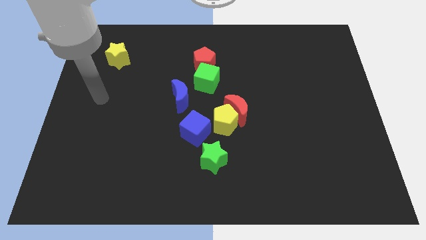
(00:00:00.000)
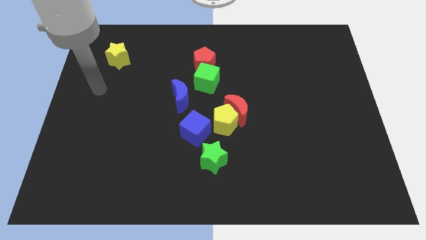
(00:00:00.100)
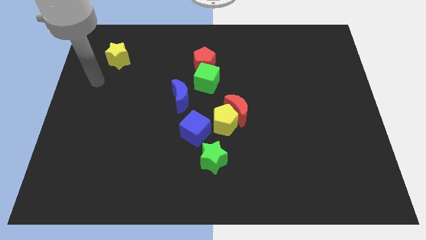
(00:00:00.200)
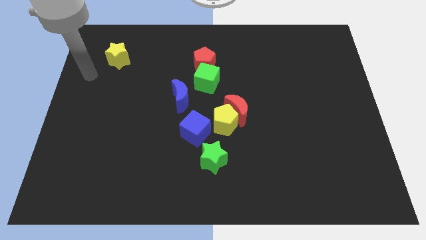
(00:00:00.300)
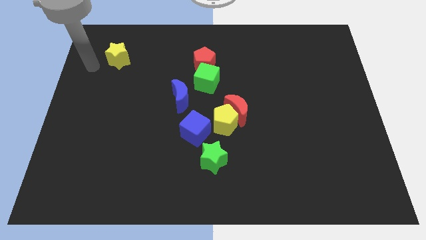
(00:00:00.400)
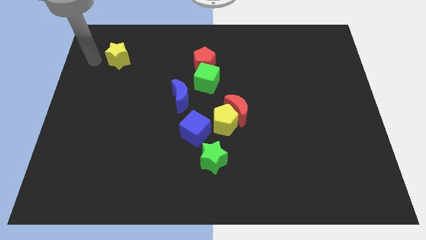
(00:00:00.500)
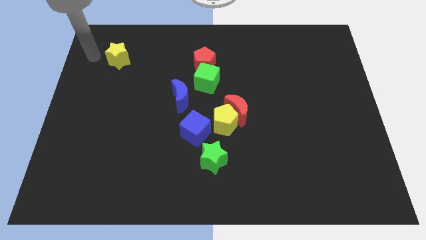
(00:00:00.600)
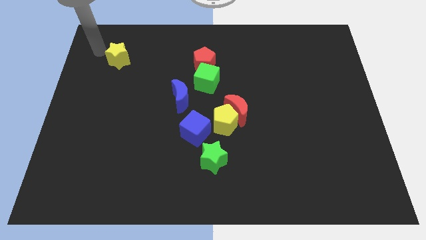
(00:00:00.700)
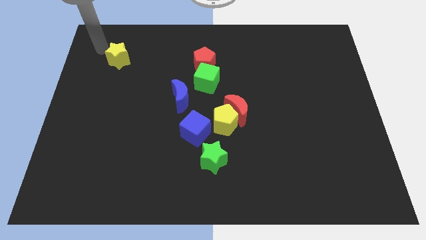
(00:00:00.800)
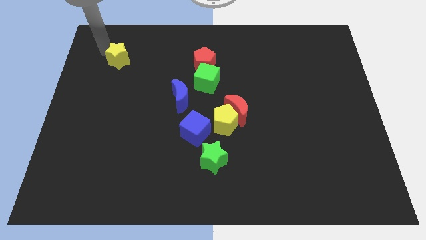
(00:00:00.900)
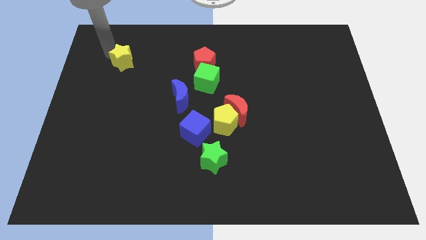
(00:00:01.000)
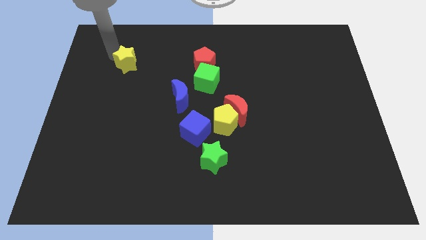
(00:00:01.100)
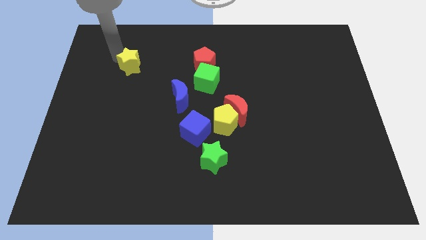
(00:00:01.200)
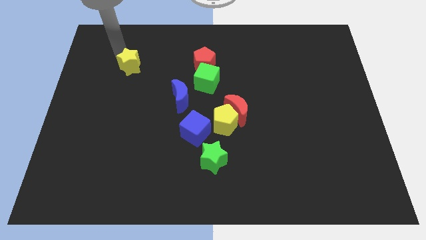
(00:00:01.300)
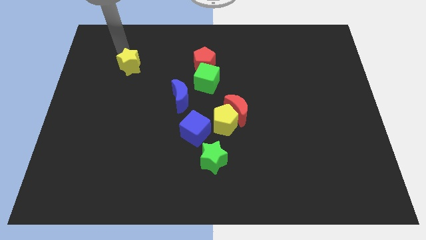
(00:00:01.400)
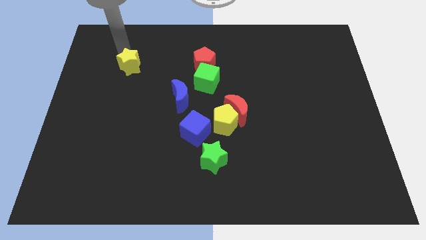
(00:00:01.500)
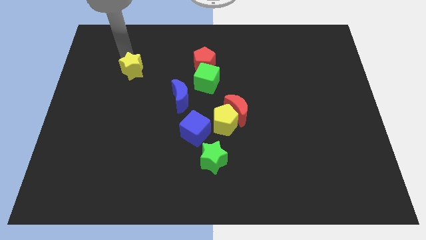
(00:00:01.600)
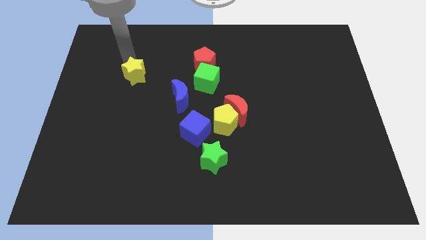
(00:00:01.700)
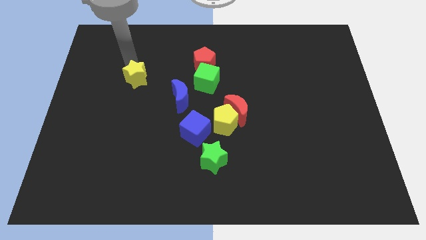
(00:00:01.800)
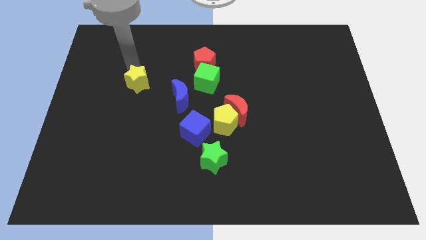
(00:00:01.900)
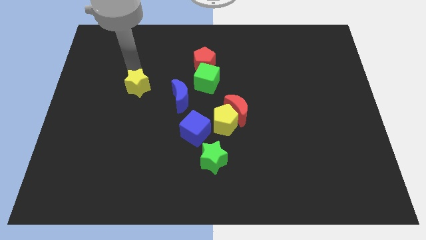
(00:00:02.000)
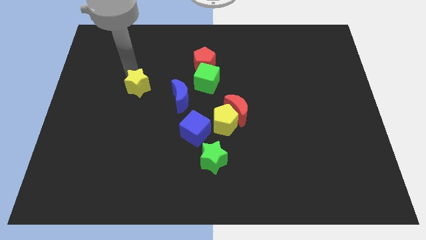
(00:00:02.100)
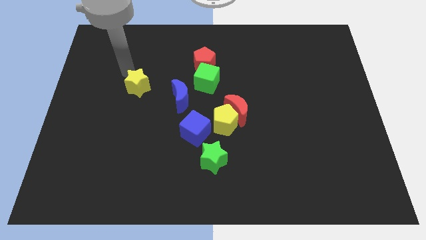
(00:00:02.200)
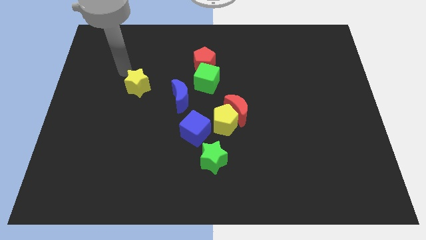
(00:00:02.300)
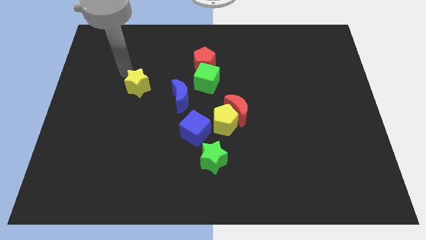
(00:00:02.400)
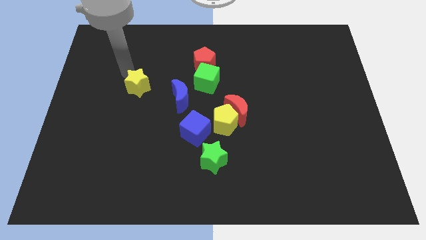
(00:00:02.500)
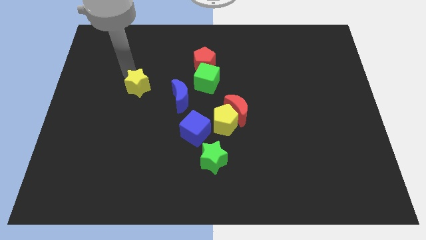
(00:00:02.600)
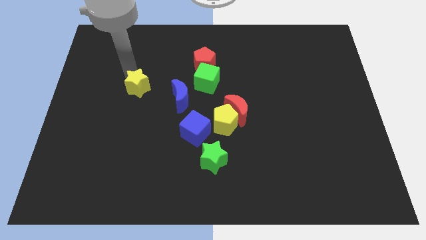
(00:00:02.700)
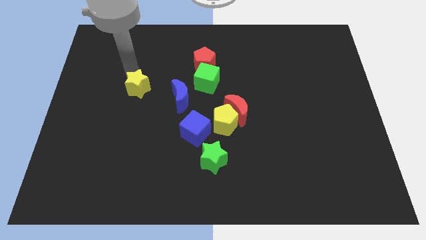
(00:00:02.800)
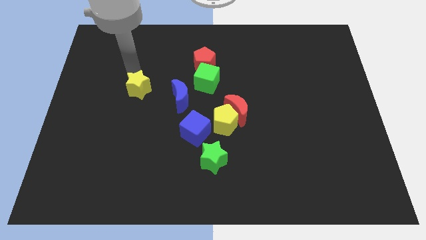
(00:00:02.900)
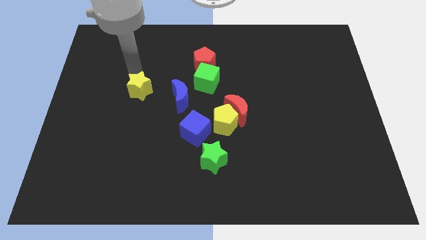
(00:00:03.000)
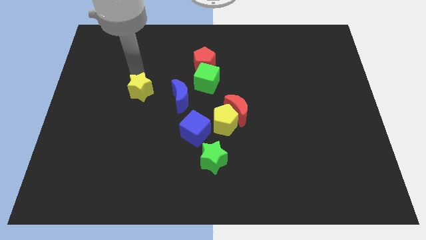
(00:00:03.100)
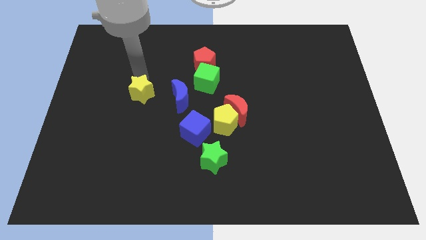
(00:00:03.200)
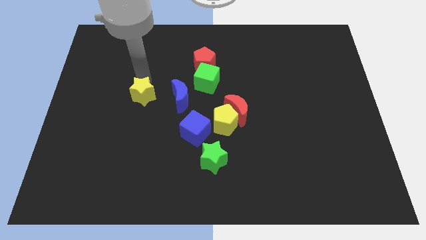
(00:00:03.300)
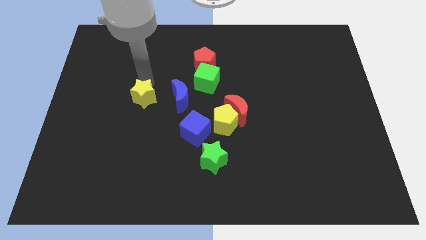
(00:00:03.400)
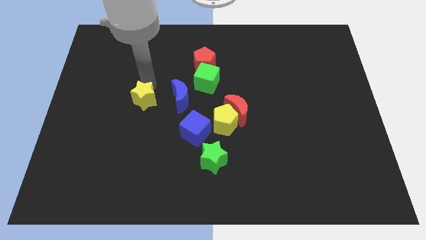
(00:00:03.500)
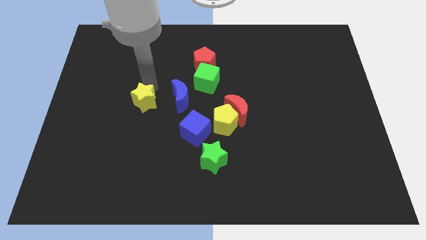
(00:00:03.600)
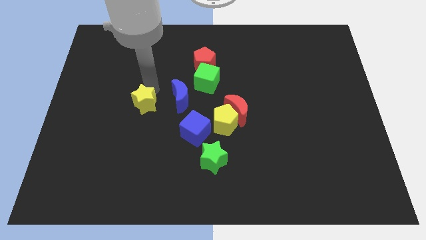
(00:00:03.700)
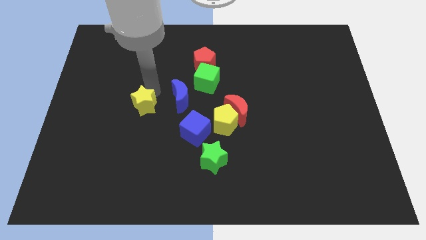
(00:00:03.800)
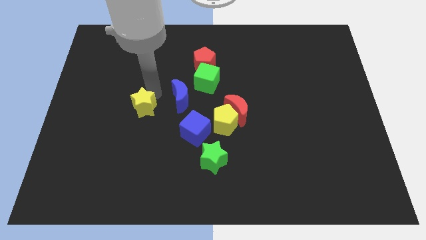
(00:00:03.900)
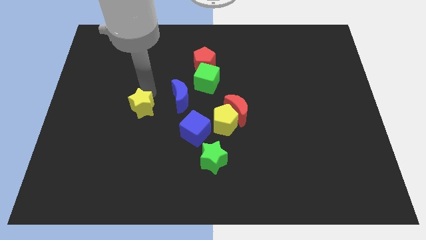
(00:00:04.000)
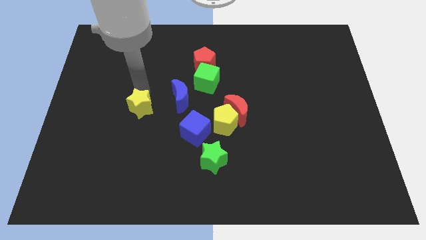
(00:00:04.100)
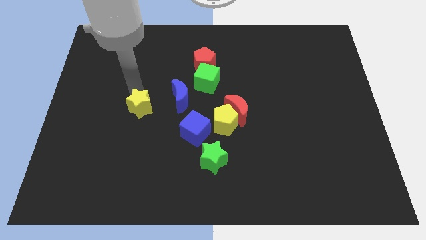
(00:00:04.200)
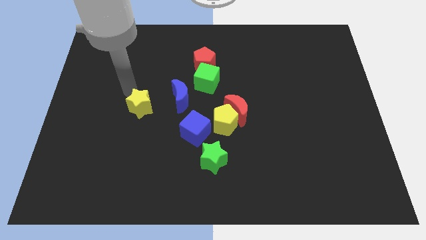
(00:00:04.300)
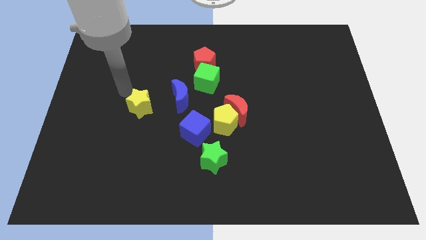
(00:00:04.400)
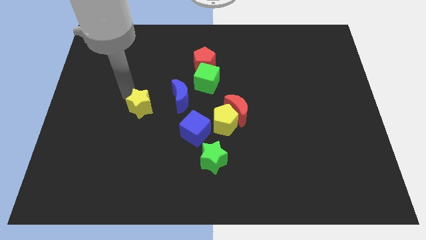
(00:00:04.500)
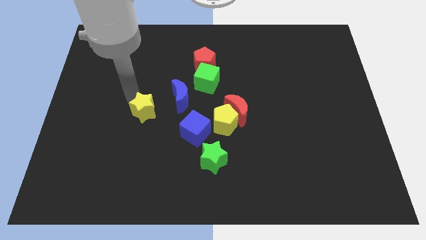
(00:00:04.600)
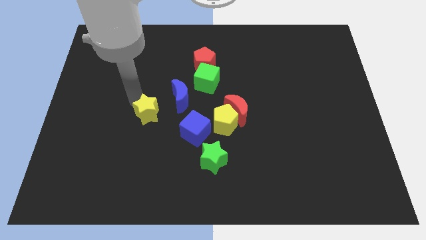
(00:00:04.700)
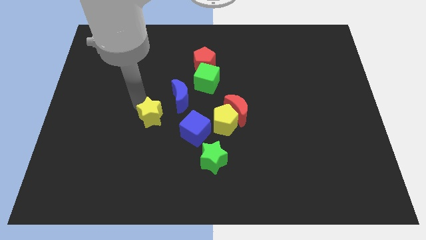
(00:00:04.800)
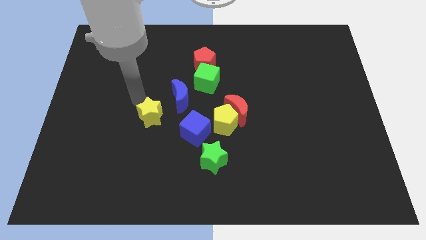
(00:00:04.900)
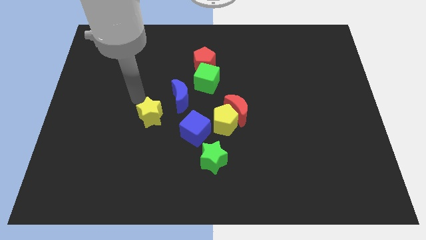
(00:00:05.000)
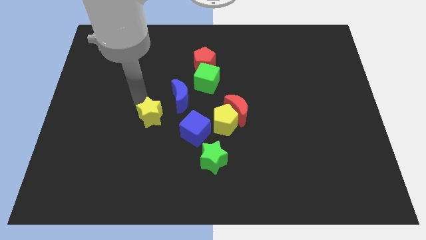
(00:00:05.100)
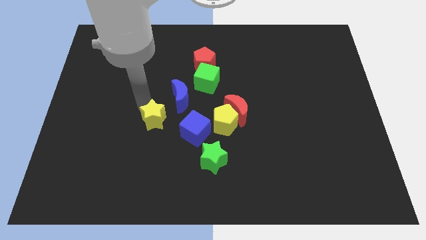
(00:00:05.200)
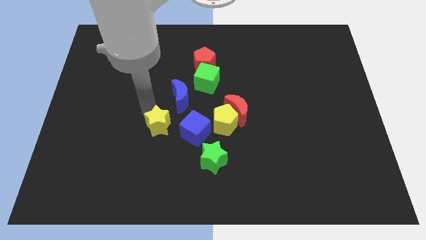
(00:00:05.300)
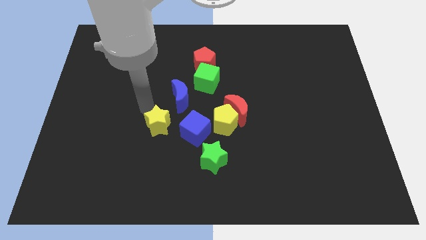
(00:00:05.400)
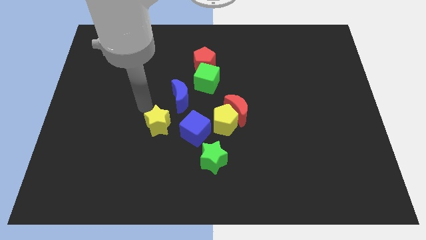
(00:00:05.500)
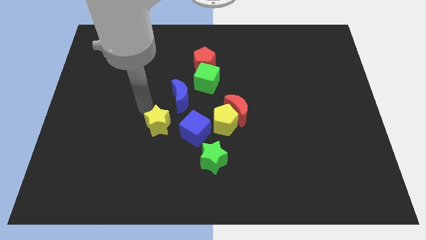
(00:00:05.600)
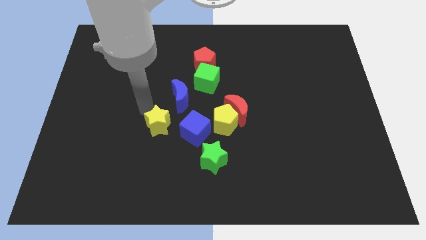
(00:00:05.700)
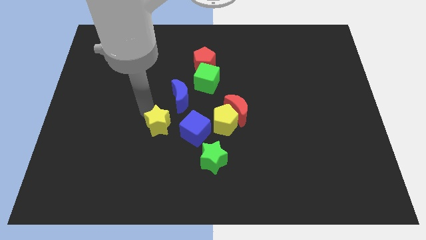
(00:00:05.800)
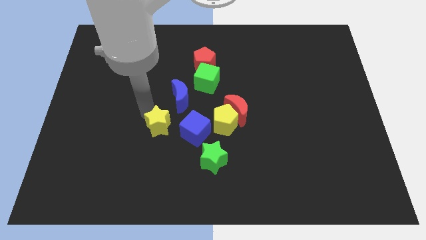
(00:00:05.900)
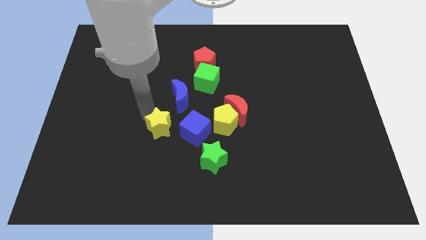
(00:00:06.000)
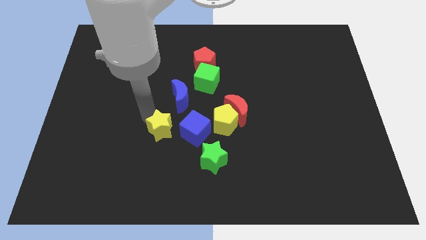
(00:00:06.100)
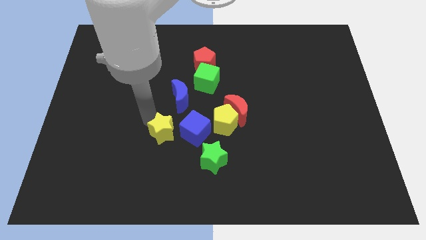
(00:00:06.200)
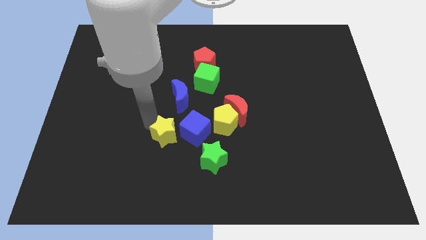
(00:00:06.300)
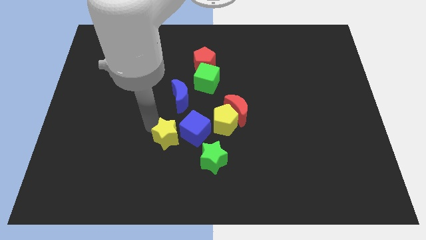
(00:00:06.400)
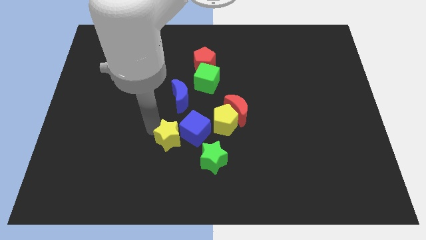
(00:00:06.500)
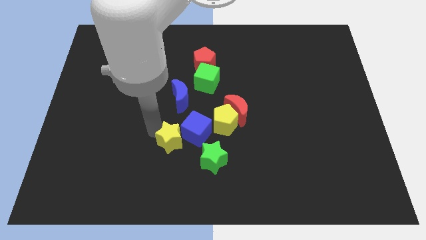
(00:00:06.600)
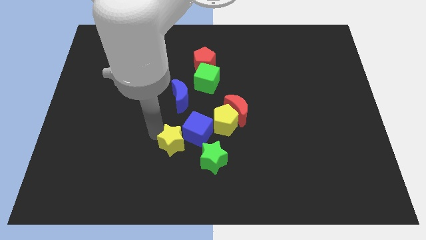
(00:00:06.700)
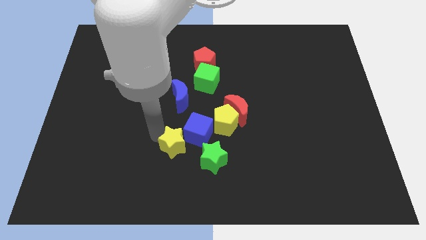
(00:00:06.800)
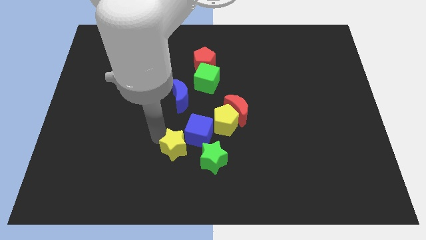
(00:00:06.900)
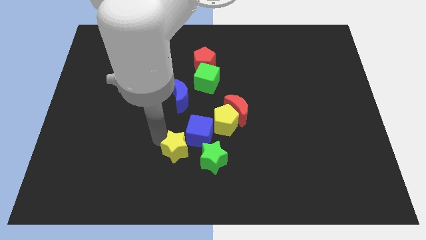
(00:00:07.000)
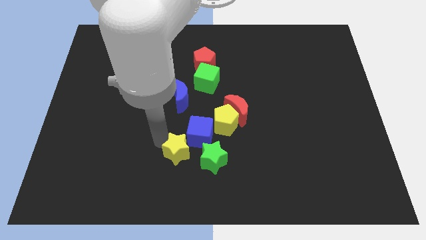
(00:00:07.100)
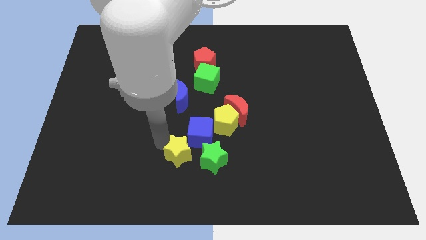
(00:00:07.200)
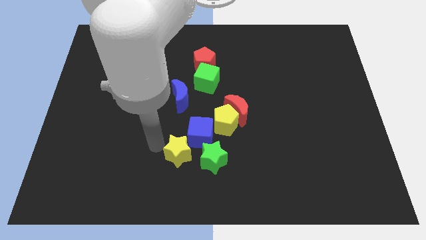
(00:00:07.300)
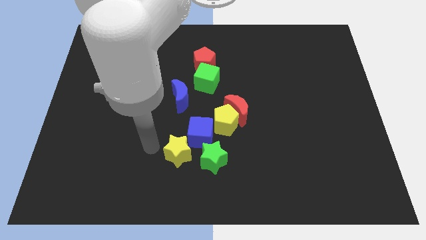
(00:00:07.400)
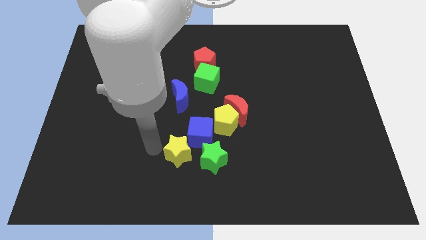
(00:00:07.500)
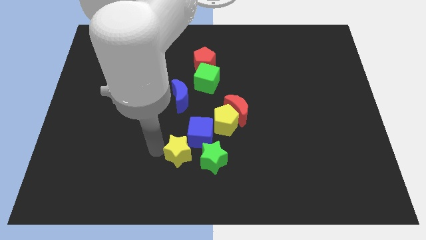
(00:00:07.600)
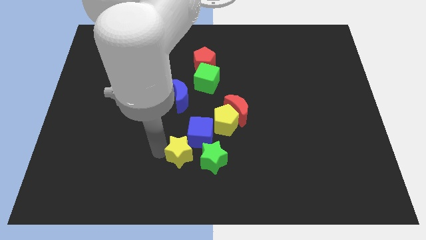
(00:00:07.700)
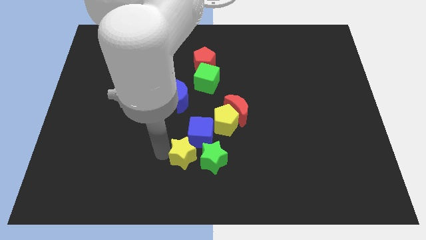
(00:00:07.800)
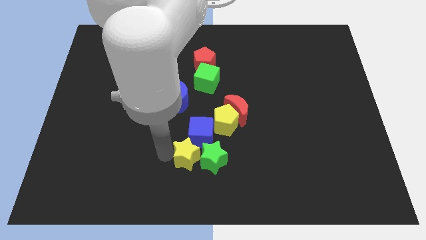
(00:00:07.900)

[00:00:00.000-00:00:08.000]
move the yellow star to the green star
